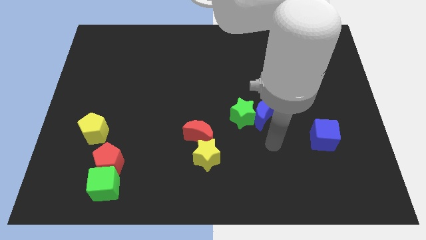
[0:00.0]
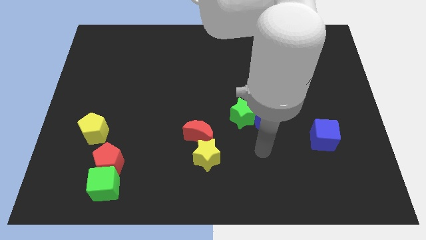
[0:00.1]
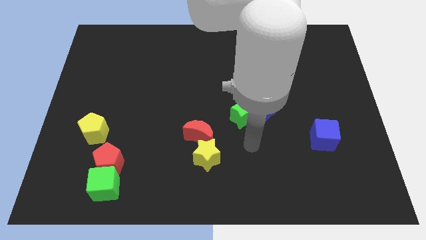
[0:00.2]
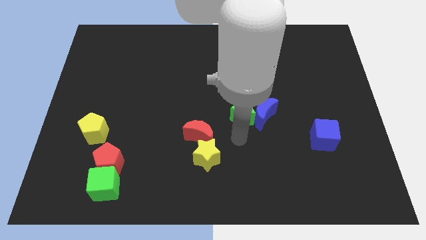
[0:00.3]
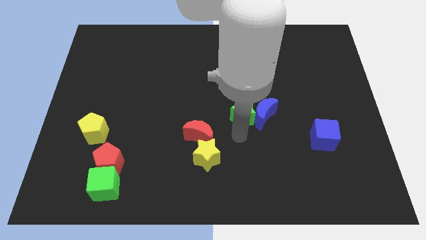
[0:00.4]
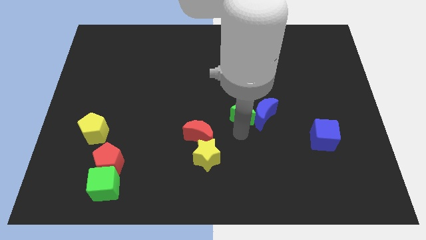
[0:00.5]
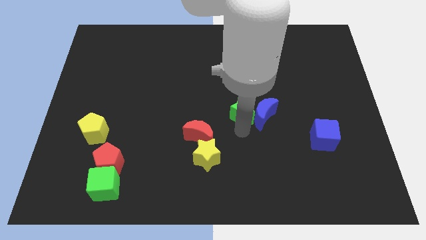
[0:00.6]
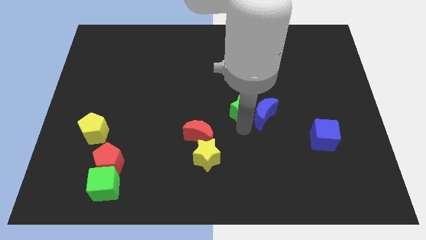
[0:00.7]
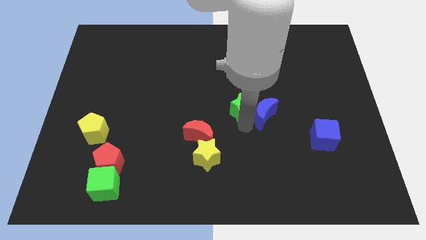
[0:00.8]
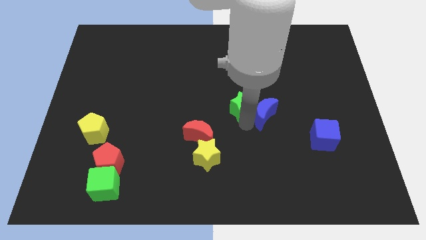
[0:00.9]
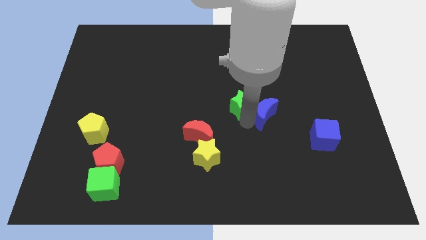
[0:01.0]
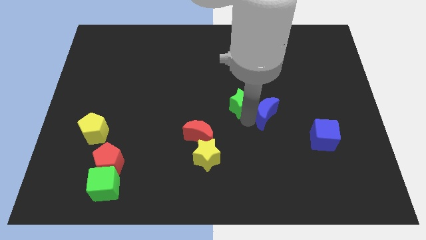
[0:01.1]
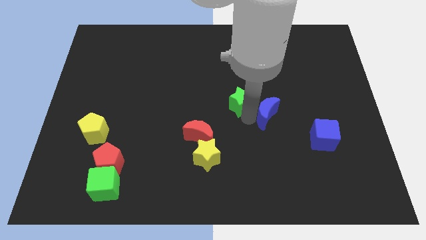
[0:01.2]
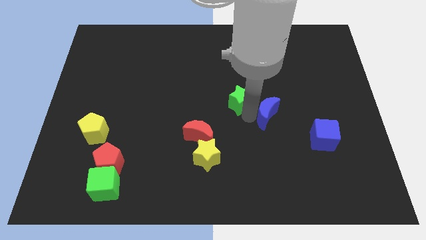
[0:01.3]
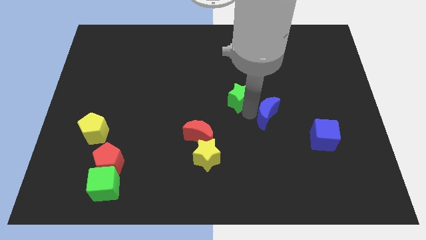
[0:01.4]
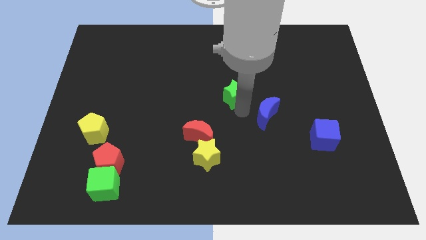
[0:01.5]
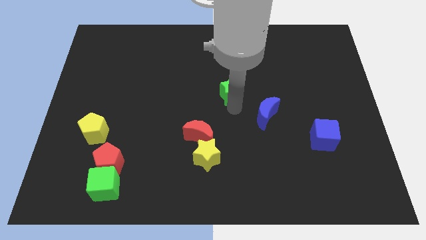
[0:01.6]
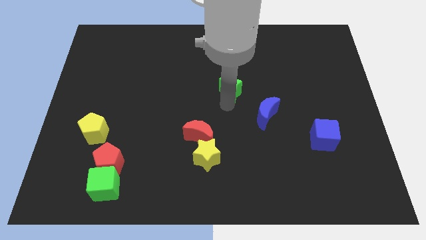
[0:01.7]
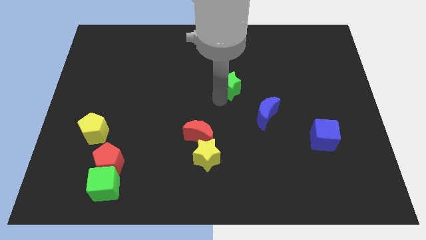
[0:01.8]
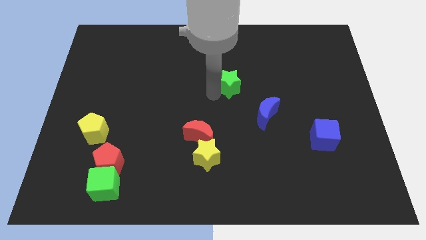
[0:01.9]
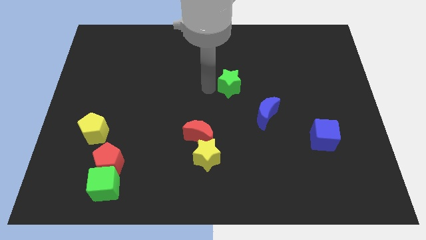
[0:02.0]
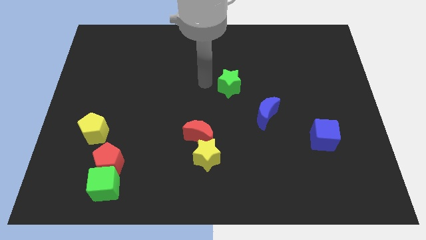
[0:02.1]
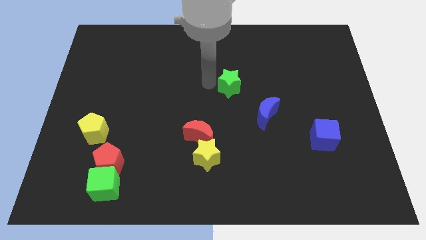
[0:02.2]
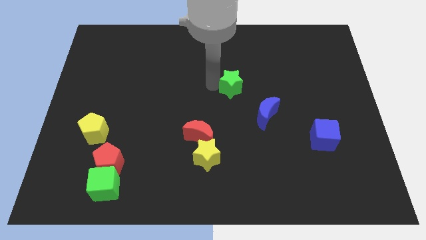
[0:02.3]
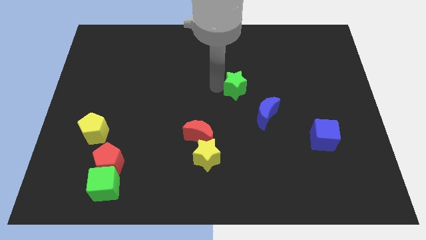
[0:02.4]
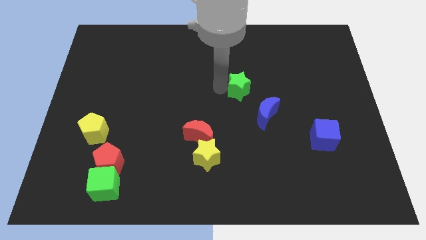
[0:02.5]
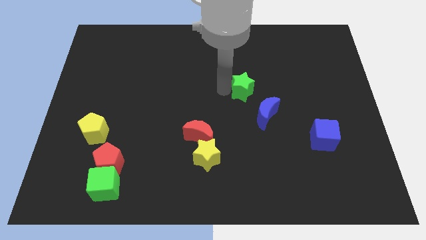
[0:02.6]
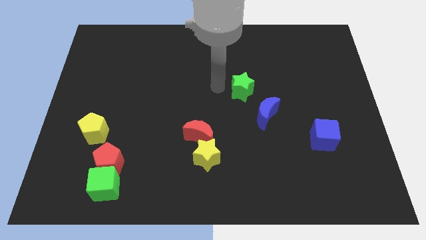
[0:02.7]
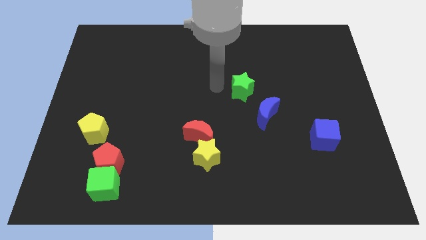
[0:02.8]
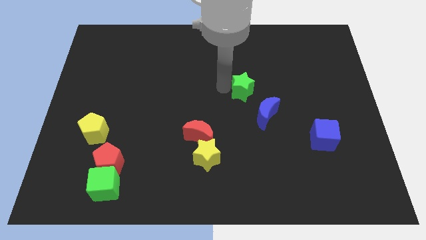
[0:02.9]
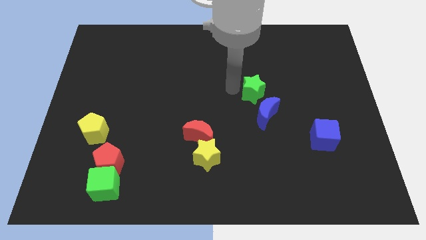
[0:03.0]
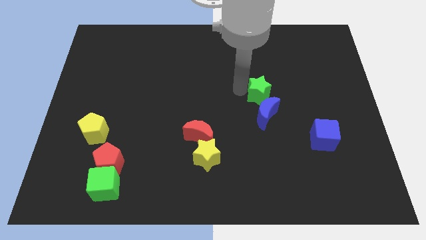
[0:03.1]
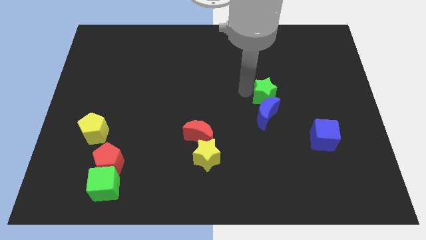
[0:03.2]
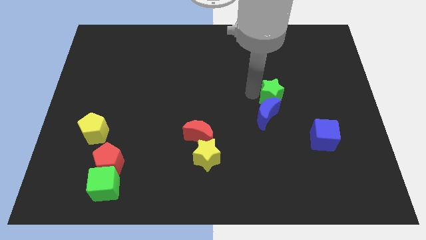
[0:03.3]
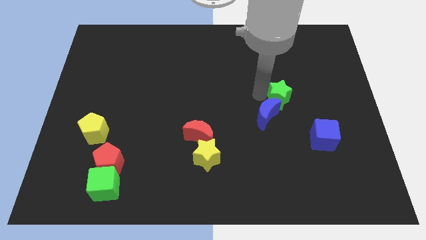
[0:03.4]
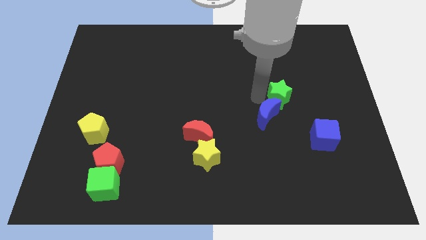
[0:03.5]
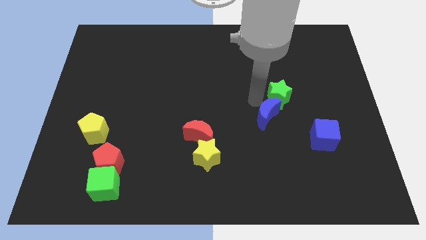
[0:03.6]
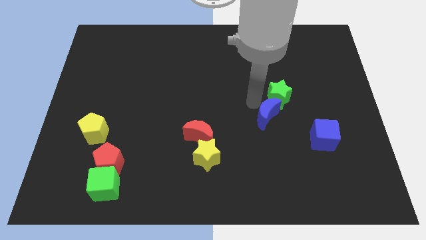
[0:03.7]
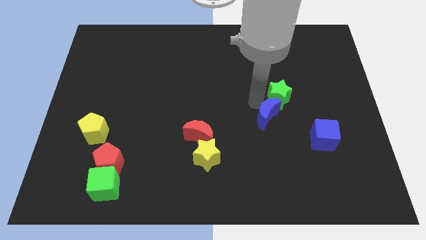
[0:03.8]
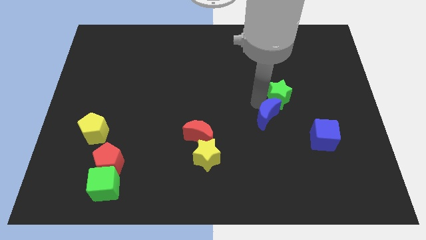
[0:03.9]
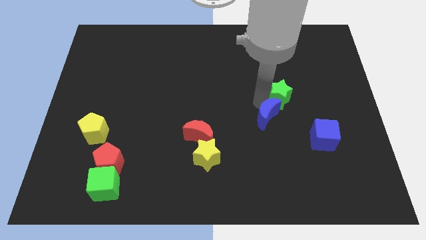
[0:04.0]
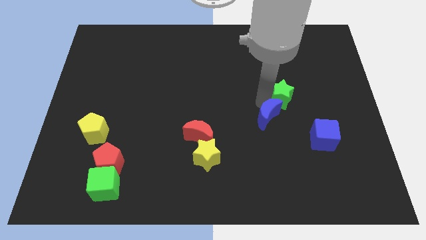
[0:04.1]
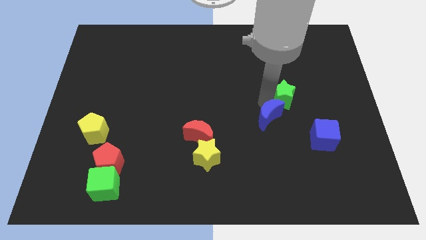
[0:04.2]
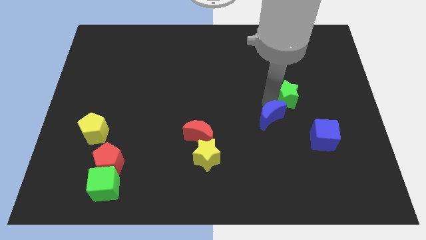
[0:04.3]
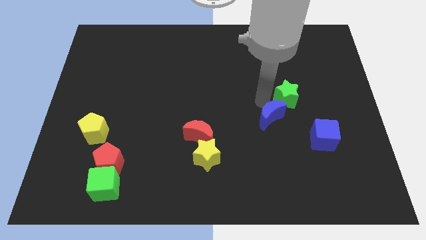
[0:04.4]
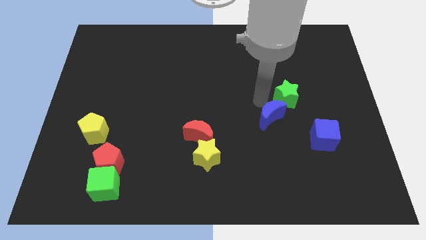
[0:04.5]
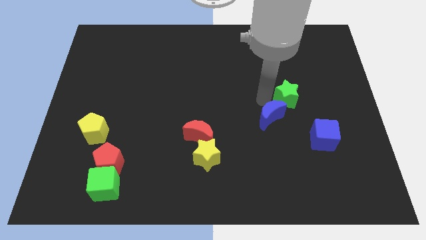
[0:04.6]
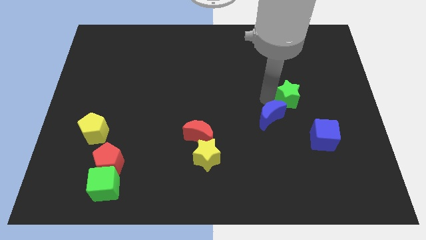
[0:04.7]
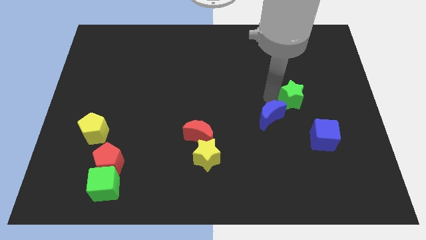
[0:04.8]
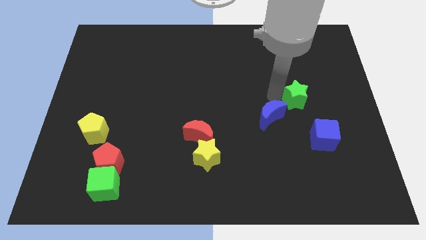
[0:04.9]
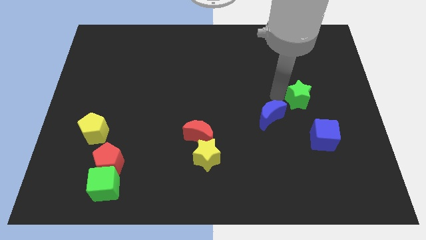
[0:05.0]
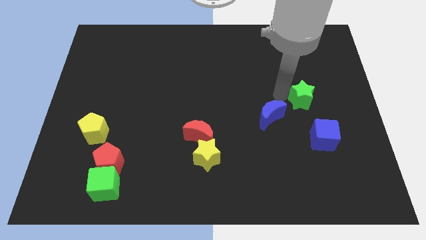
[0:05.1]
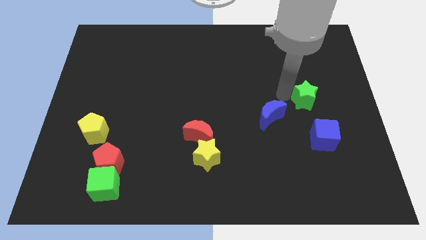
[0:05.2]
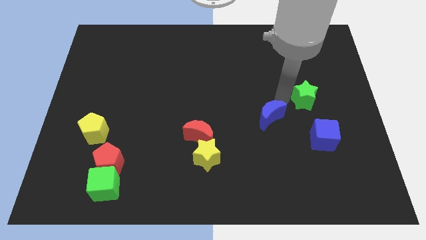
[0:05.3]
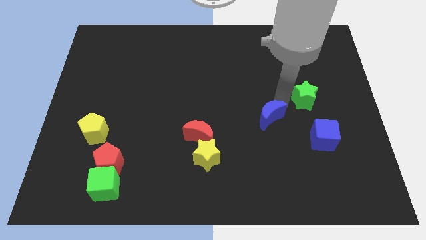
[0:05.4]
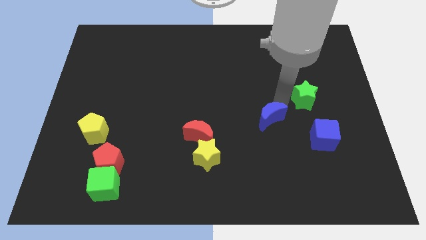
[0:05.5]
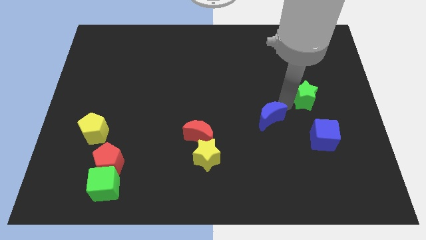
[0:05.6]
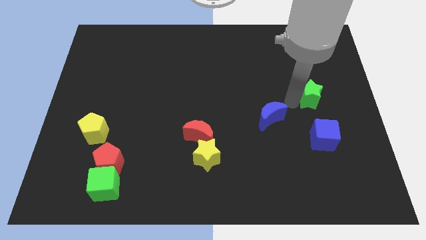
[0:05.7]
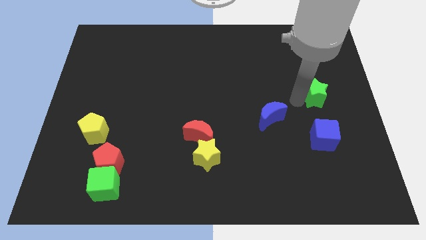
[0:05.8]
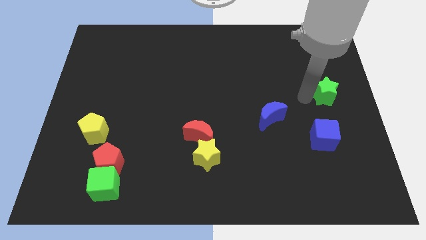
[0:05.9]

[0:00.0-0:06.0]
put the green star to the right side of the board

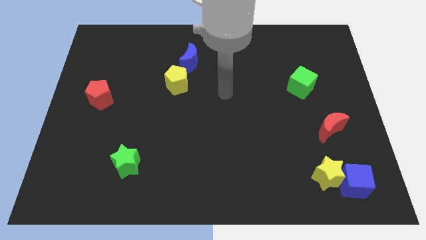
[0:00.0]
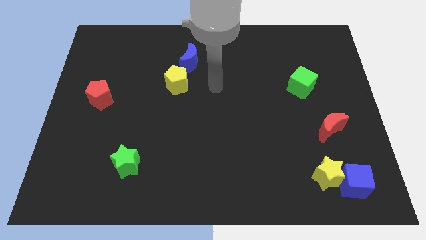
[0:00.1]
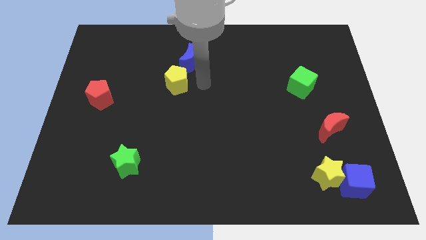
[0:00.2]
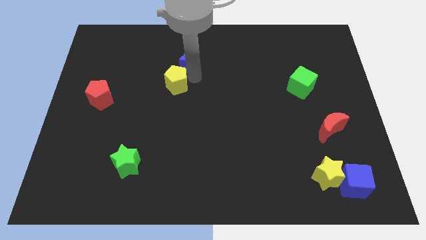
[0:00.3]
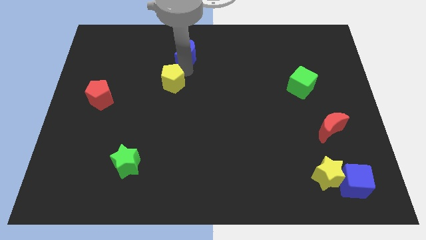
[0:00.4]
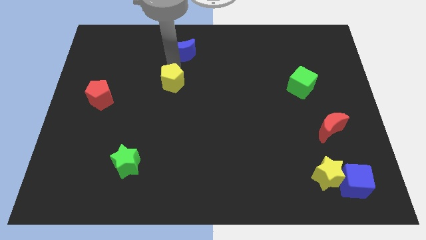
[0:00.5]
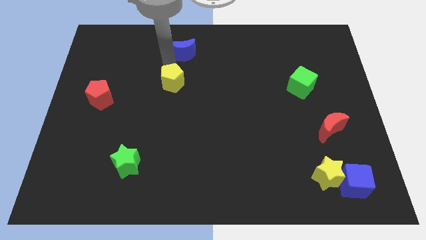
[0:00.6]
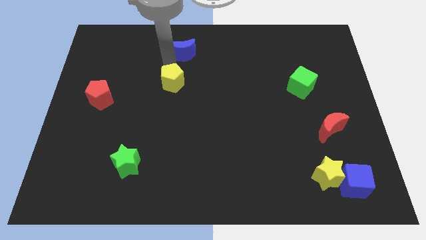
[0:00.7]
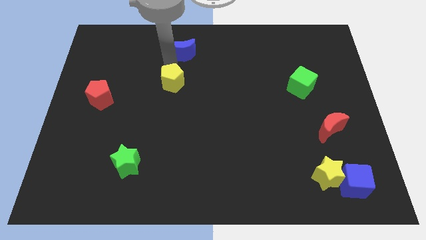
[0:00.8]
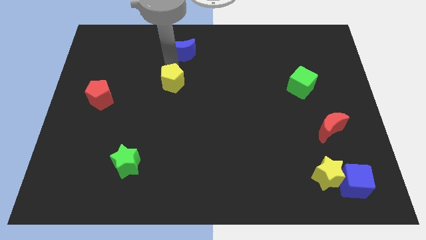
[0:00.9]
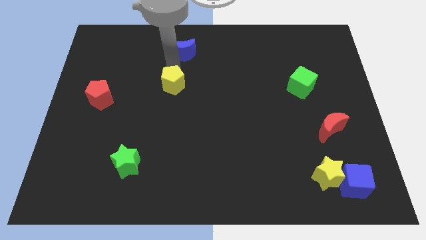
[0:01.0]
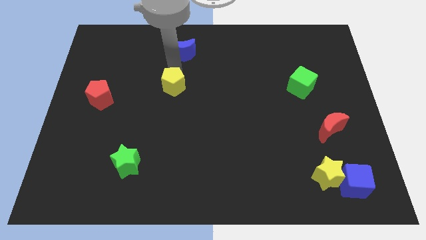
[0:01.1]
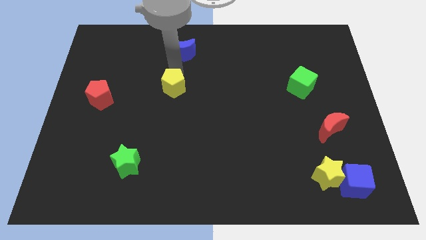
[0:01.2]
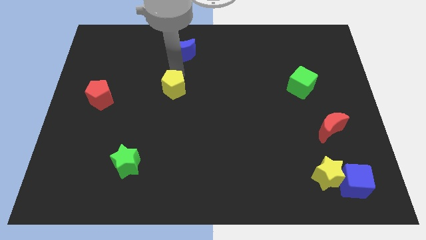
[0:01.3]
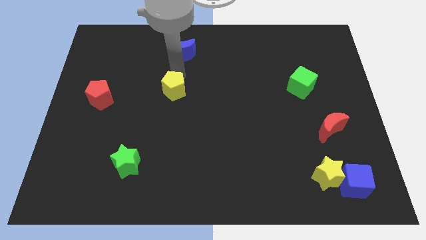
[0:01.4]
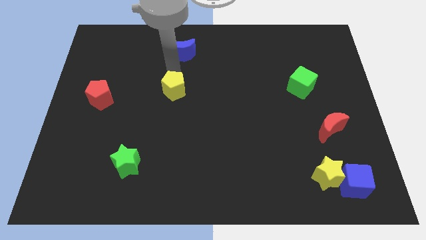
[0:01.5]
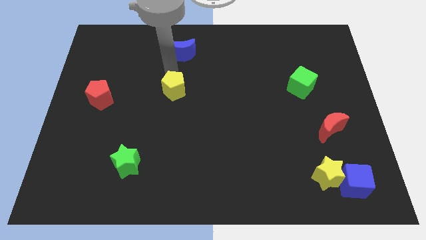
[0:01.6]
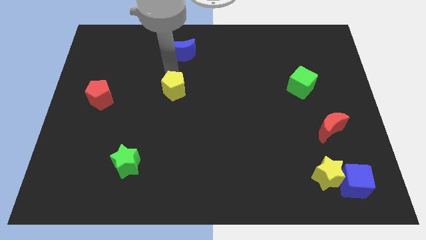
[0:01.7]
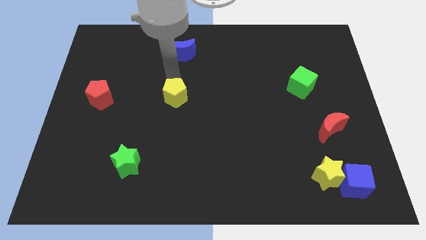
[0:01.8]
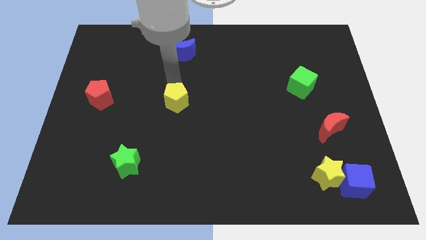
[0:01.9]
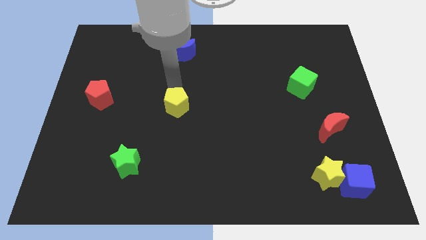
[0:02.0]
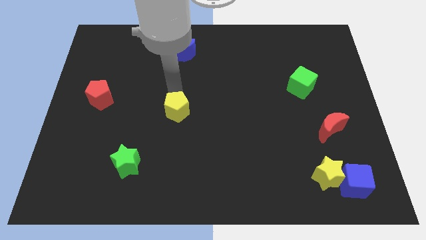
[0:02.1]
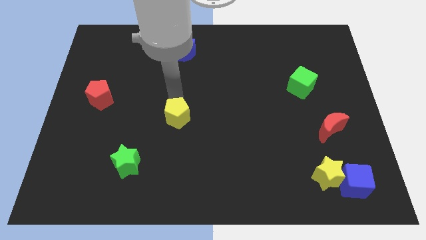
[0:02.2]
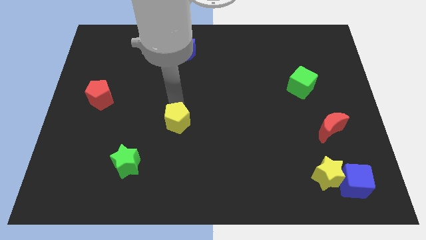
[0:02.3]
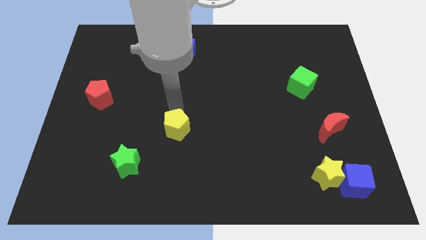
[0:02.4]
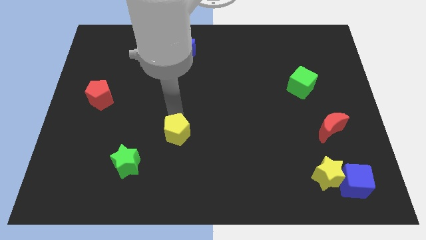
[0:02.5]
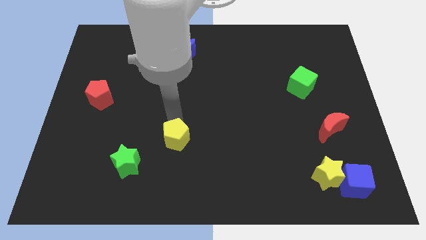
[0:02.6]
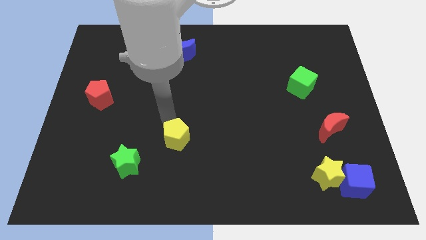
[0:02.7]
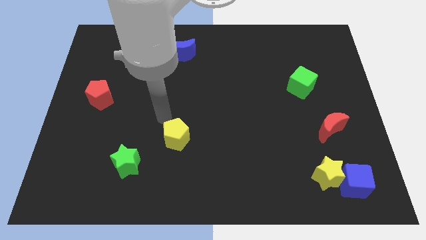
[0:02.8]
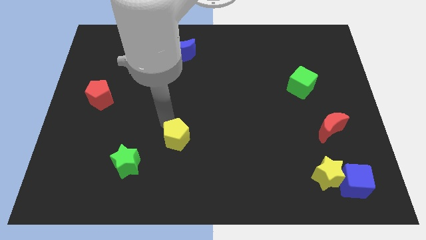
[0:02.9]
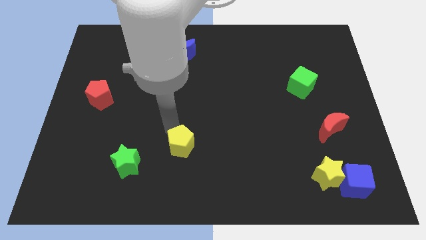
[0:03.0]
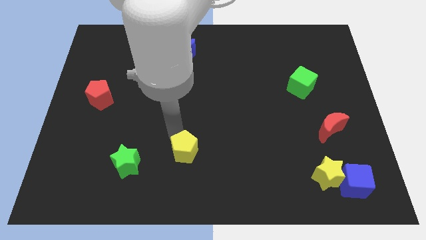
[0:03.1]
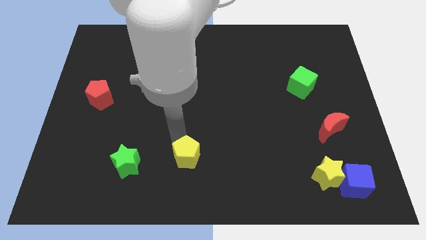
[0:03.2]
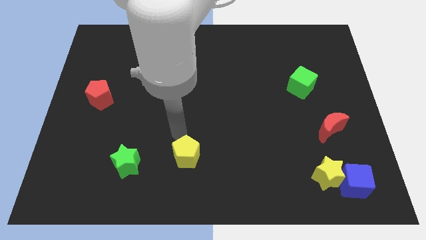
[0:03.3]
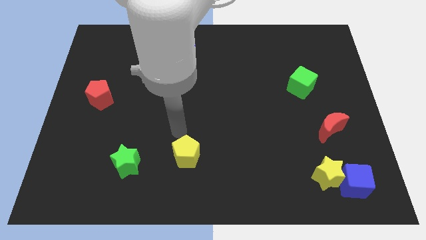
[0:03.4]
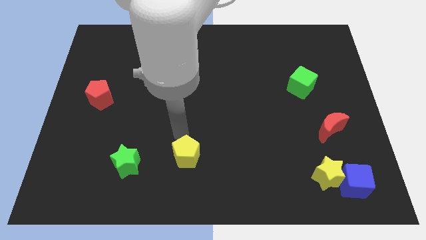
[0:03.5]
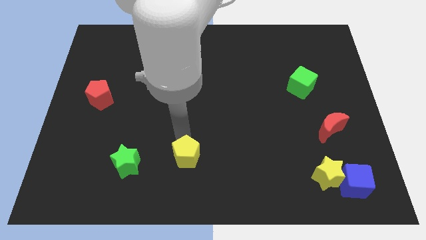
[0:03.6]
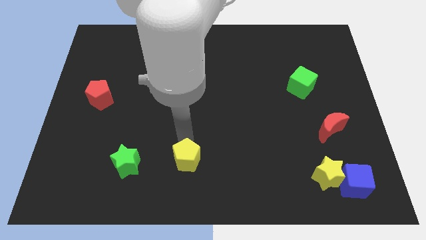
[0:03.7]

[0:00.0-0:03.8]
move the yellow pentagon to the bottom
